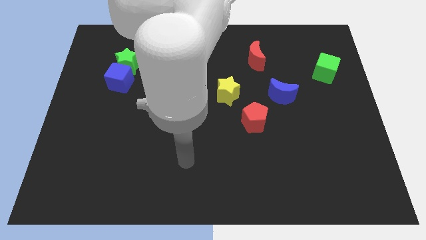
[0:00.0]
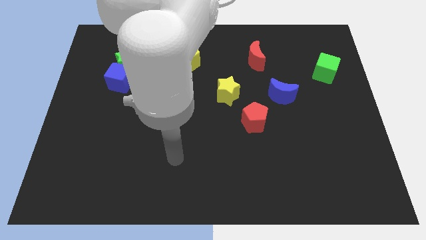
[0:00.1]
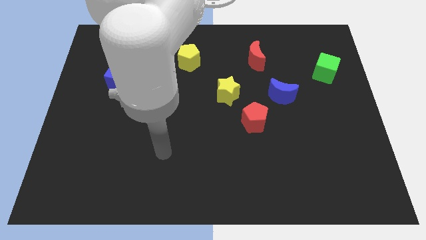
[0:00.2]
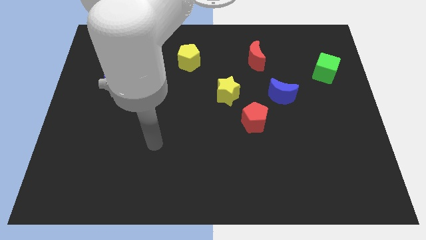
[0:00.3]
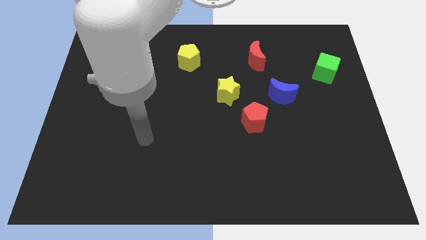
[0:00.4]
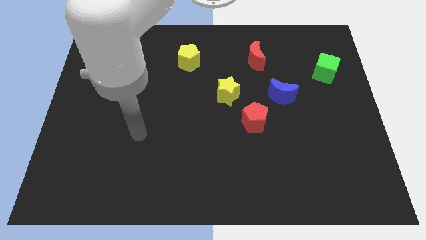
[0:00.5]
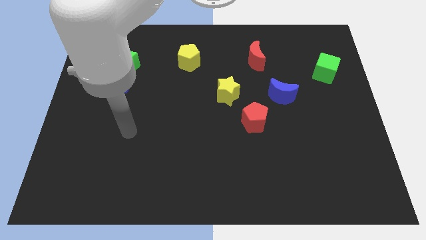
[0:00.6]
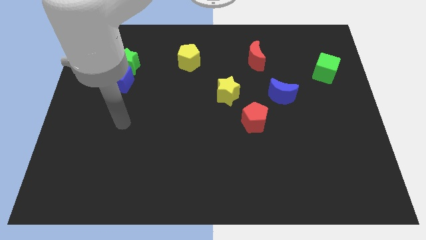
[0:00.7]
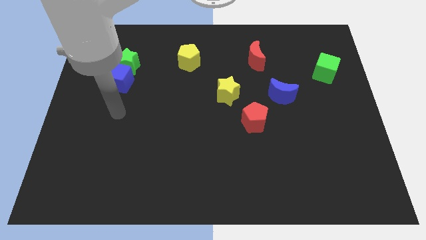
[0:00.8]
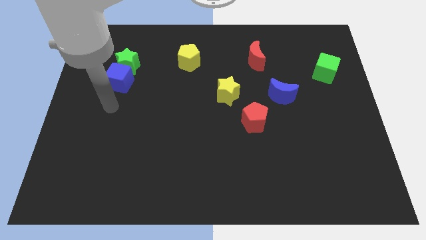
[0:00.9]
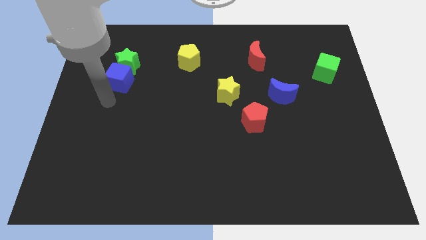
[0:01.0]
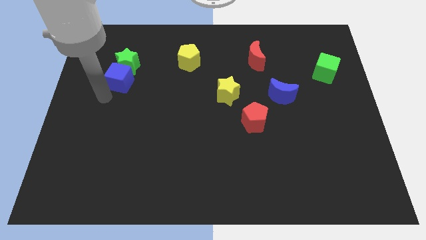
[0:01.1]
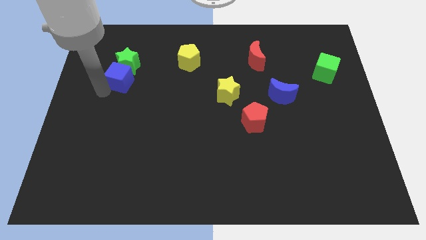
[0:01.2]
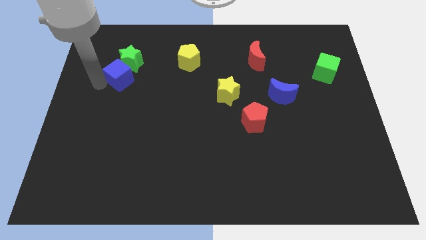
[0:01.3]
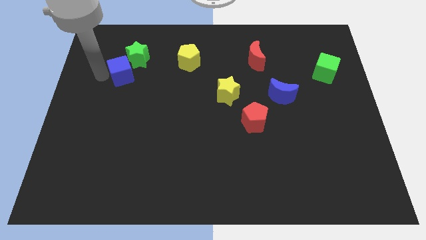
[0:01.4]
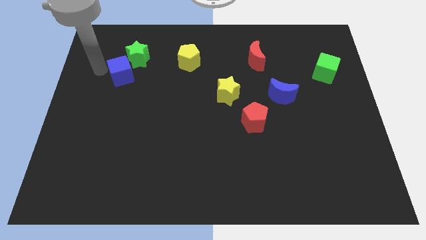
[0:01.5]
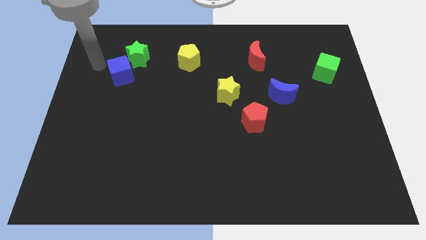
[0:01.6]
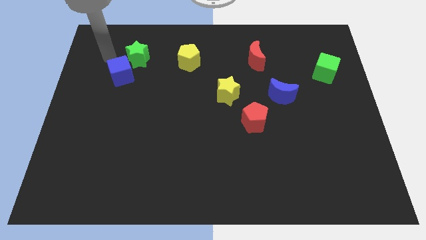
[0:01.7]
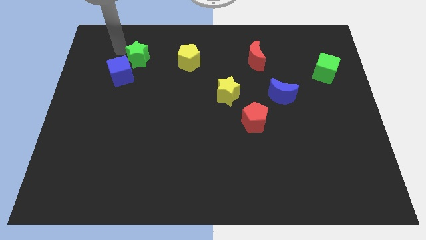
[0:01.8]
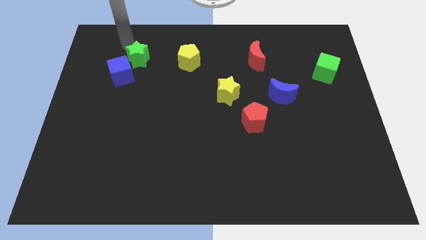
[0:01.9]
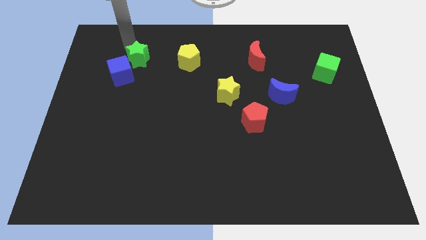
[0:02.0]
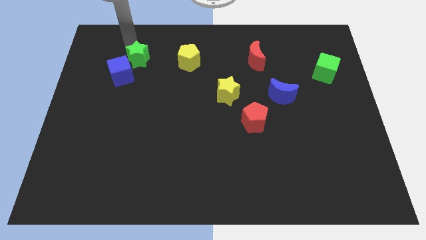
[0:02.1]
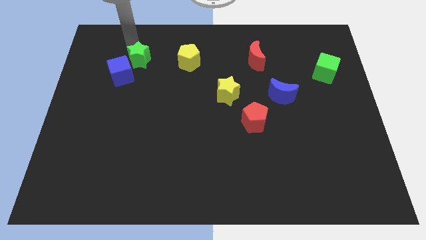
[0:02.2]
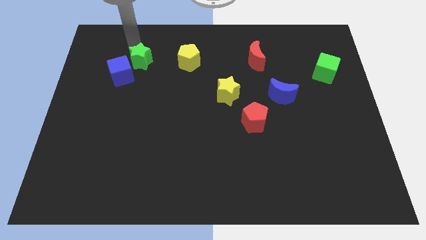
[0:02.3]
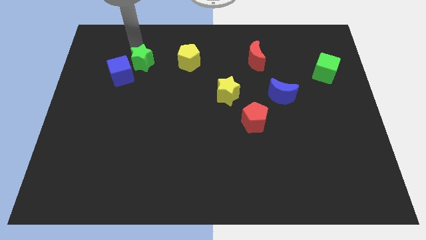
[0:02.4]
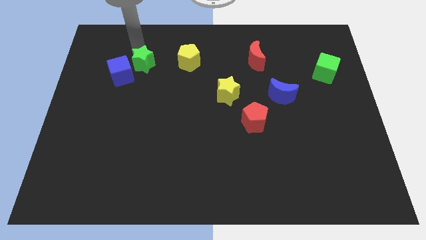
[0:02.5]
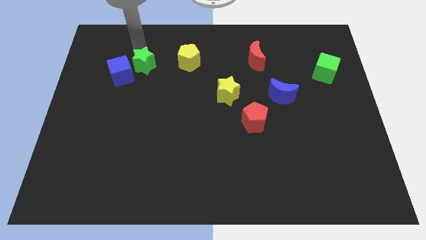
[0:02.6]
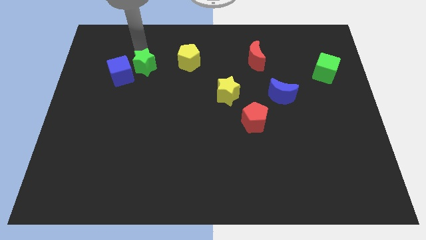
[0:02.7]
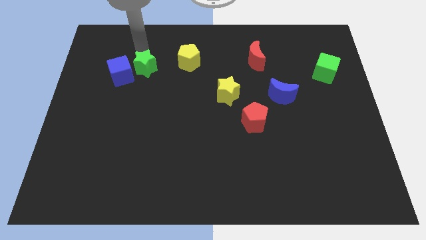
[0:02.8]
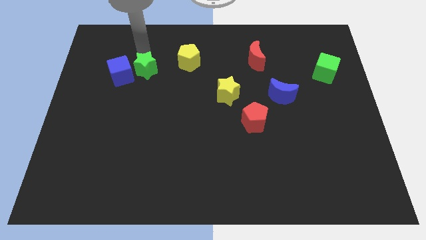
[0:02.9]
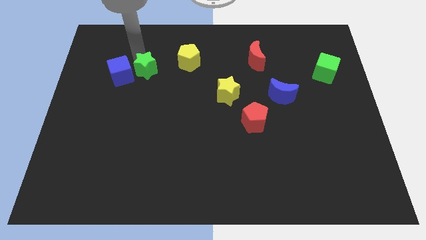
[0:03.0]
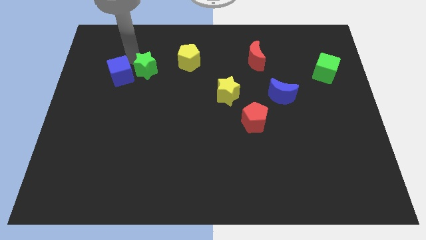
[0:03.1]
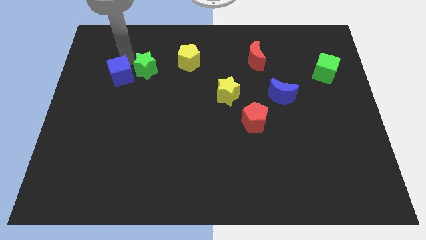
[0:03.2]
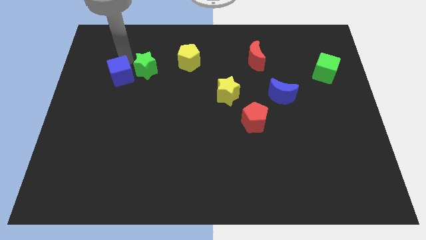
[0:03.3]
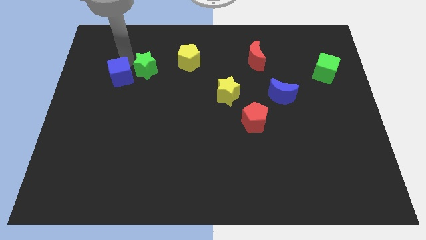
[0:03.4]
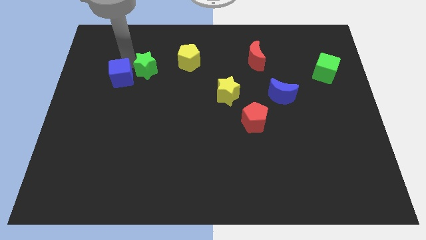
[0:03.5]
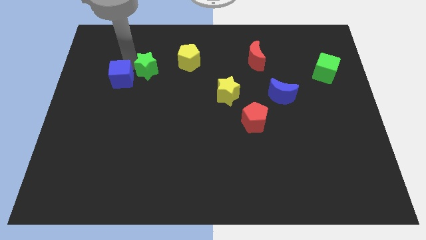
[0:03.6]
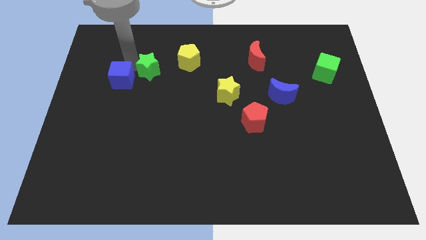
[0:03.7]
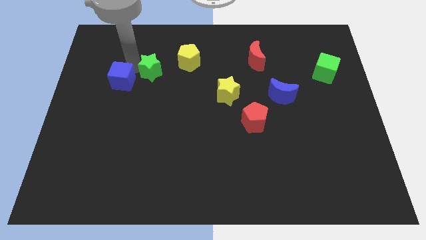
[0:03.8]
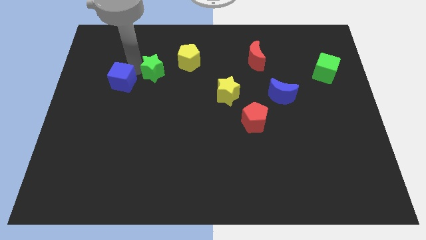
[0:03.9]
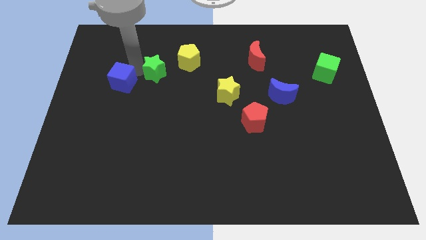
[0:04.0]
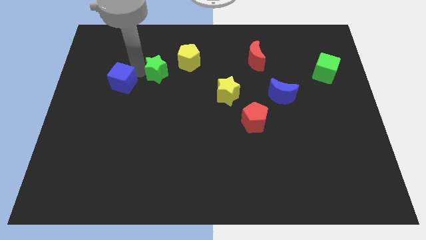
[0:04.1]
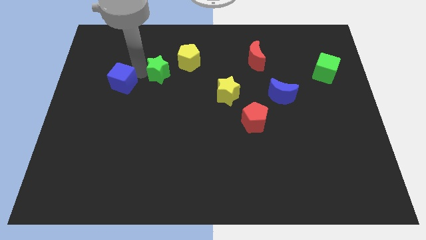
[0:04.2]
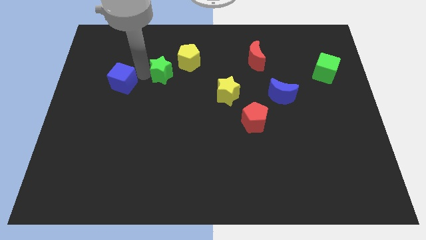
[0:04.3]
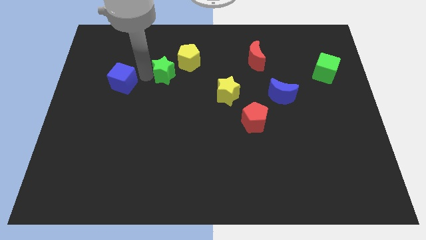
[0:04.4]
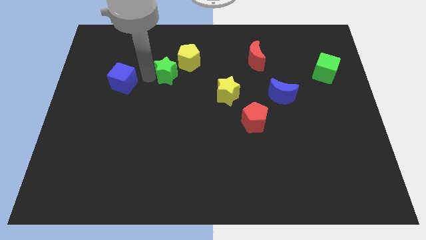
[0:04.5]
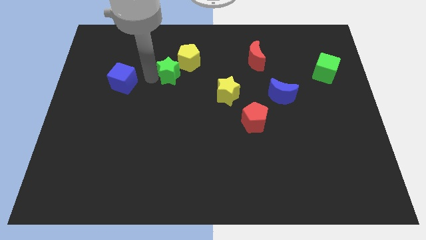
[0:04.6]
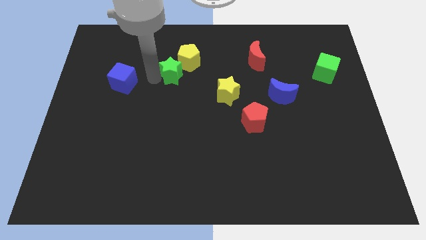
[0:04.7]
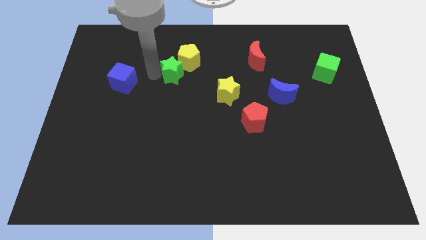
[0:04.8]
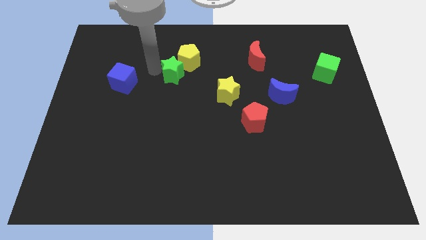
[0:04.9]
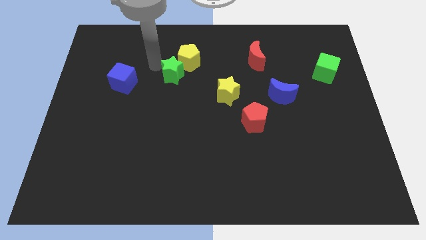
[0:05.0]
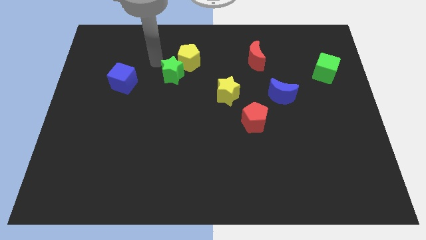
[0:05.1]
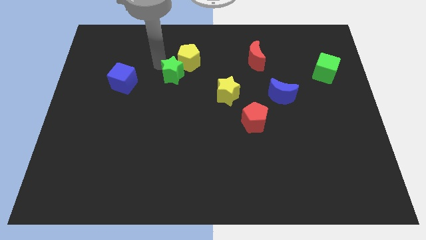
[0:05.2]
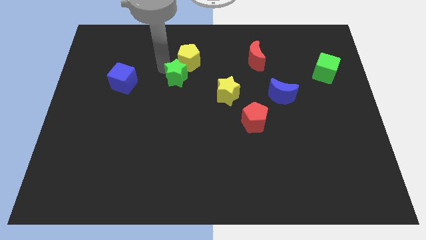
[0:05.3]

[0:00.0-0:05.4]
push the green star to the middle

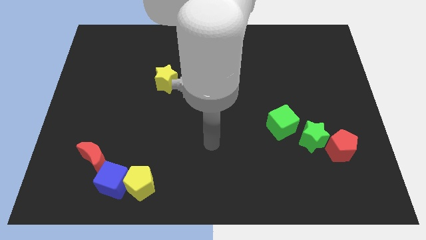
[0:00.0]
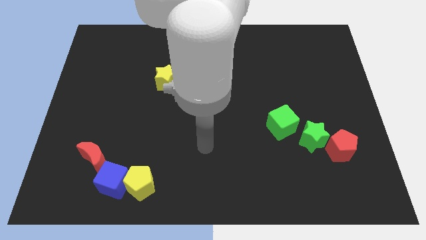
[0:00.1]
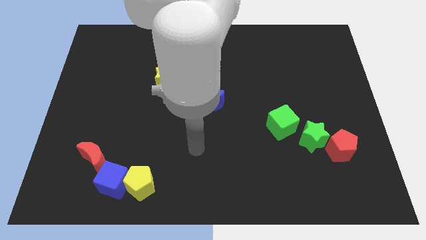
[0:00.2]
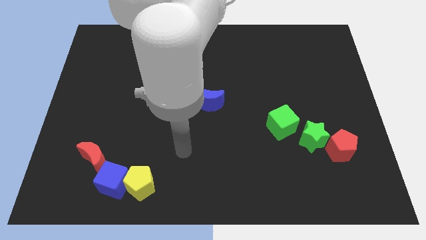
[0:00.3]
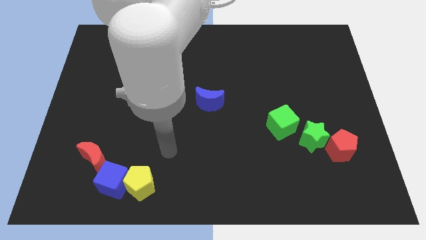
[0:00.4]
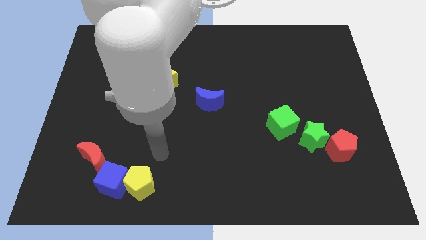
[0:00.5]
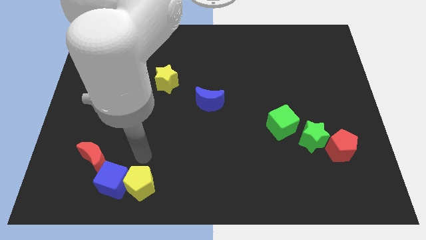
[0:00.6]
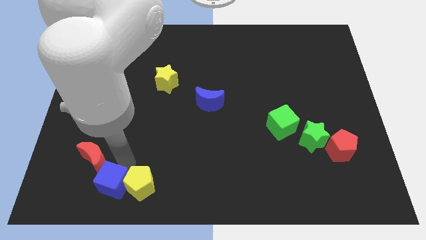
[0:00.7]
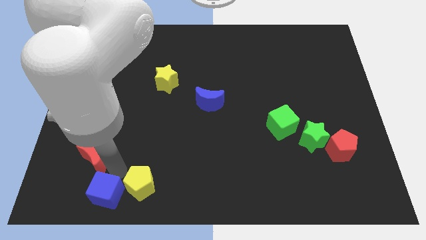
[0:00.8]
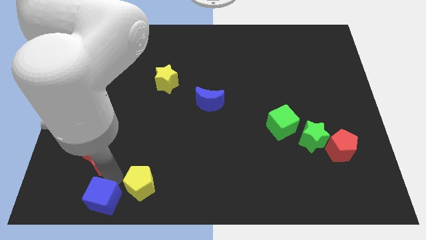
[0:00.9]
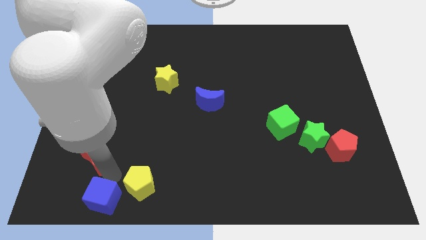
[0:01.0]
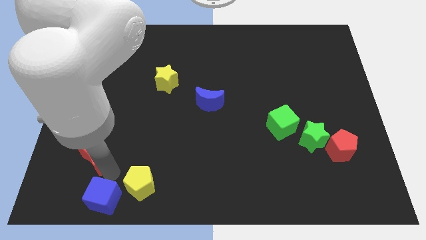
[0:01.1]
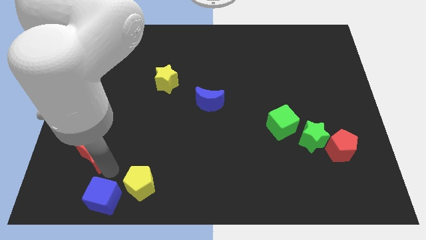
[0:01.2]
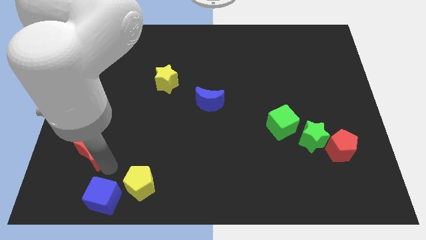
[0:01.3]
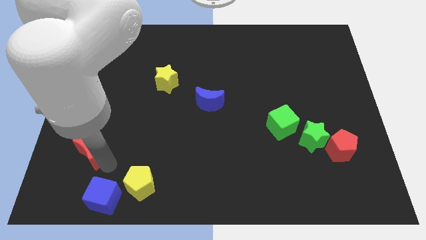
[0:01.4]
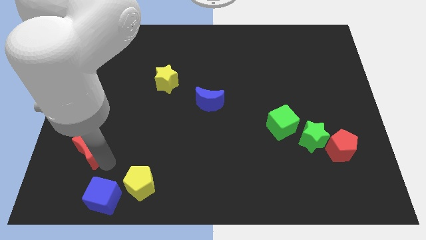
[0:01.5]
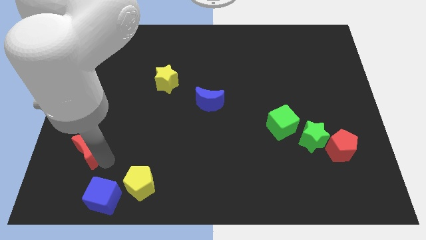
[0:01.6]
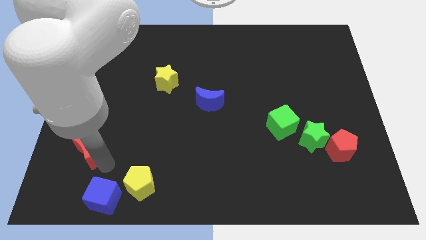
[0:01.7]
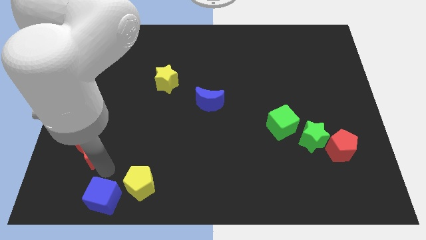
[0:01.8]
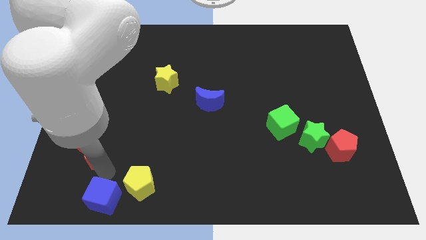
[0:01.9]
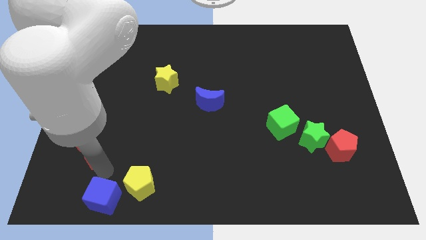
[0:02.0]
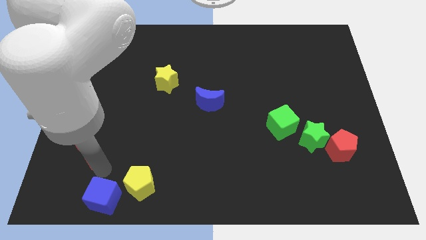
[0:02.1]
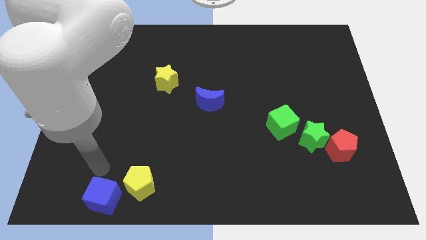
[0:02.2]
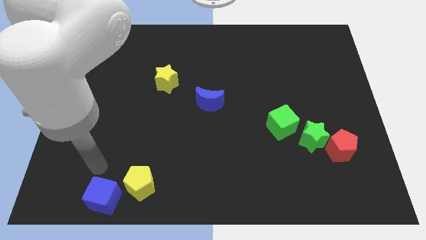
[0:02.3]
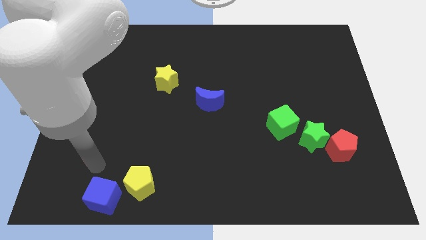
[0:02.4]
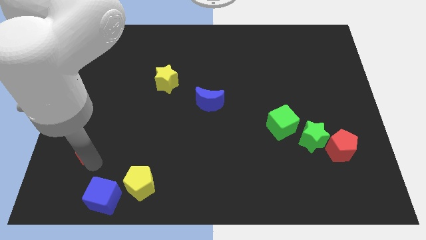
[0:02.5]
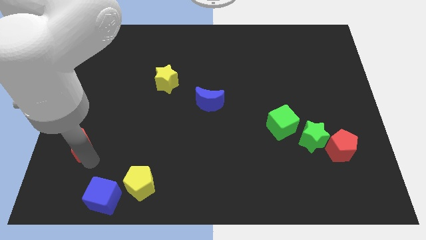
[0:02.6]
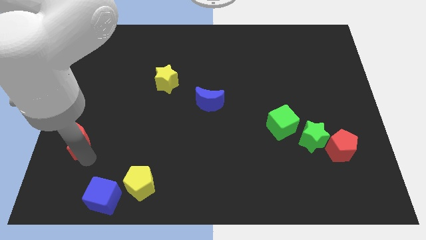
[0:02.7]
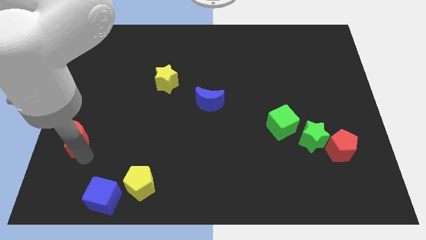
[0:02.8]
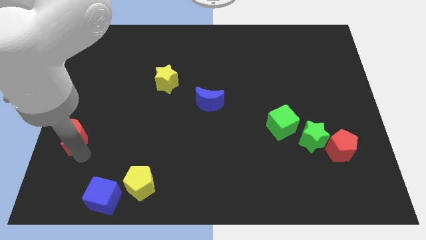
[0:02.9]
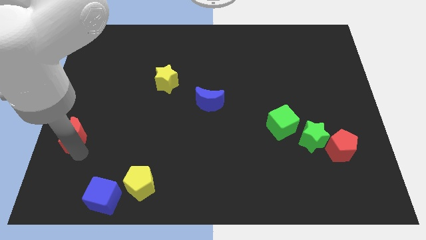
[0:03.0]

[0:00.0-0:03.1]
put the red moon to the left side of the board
